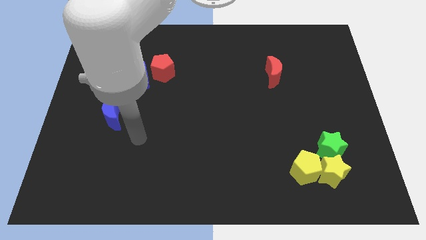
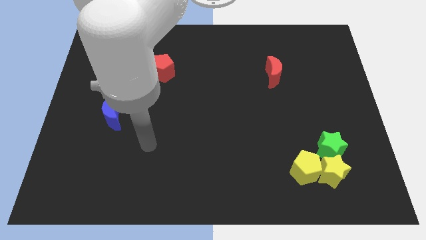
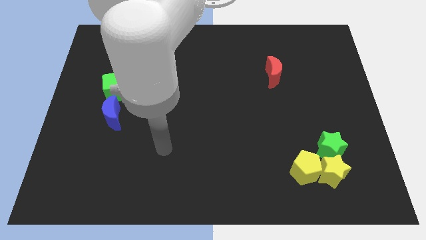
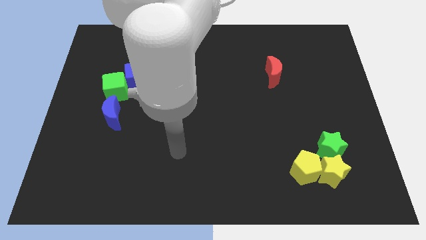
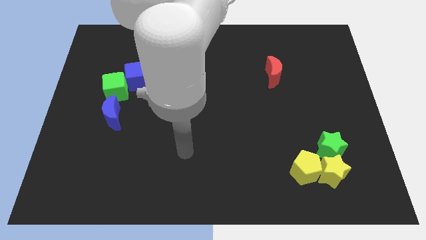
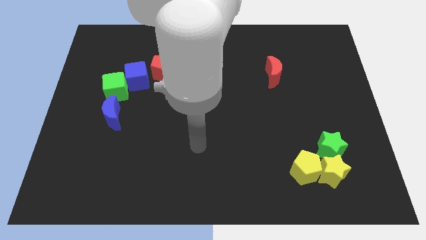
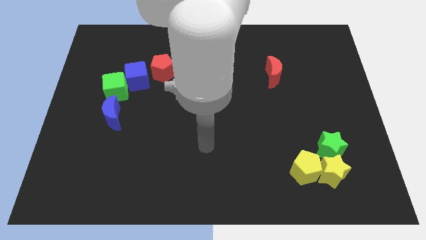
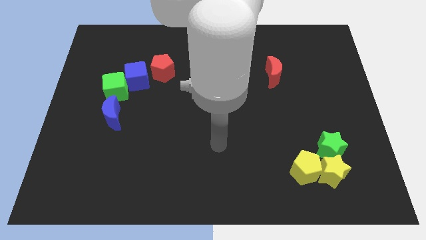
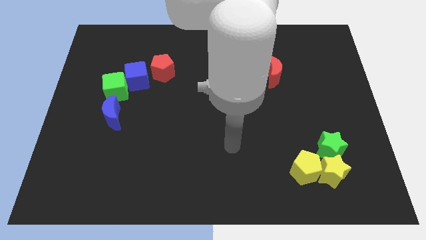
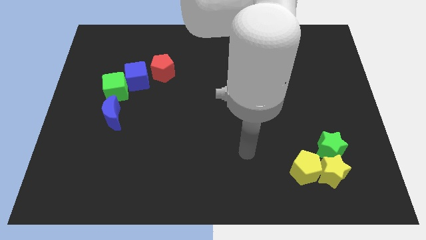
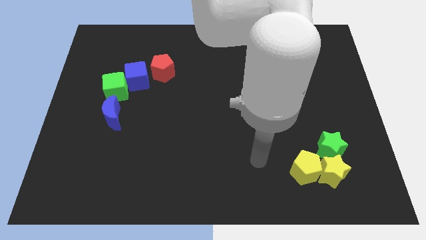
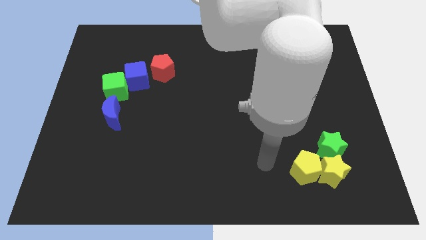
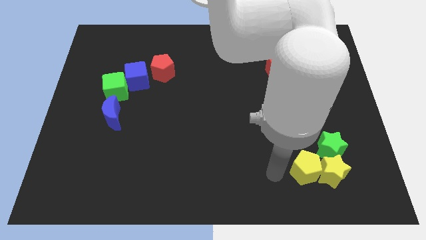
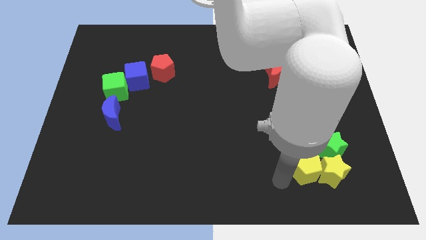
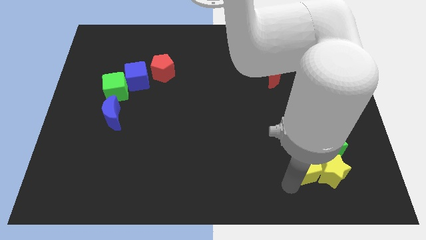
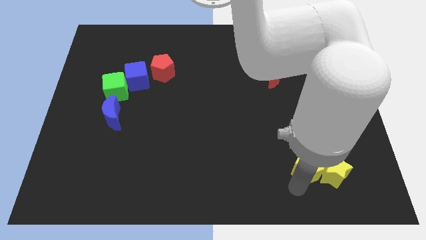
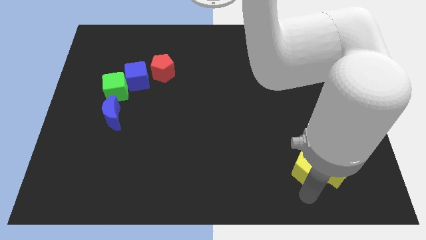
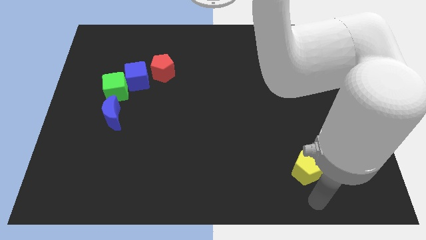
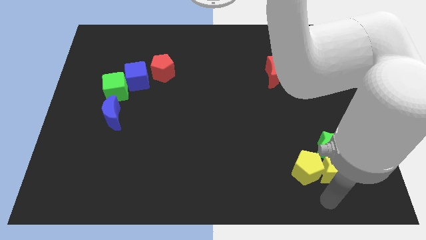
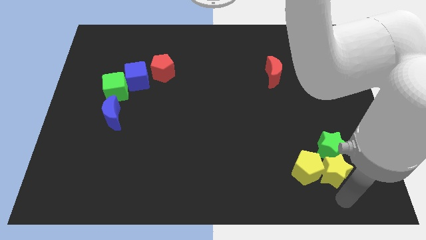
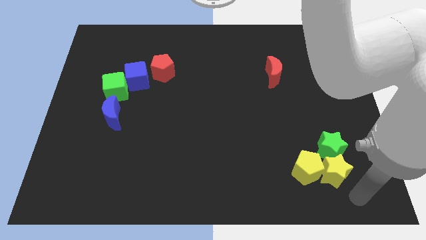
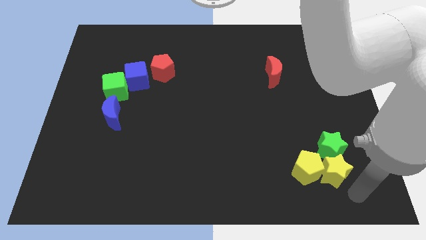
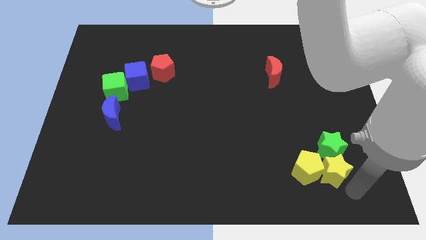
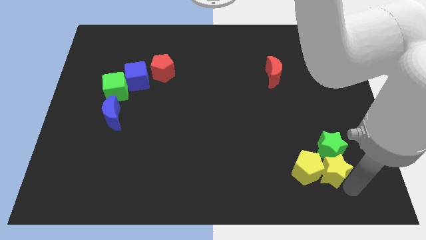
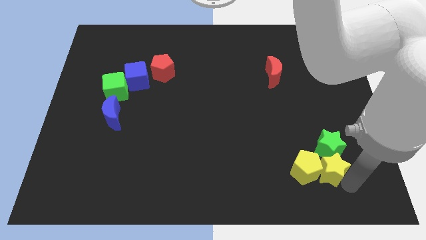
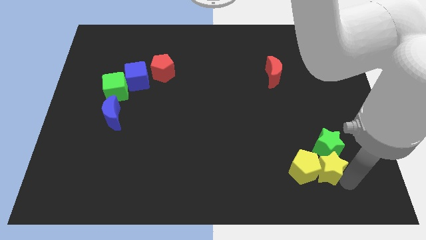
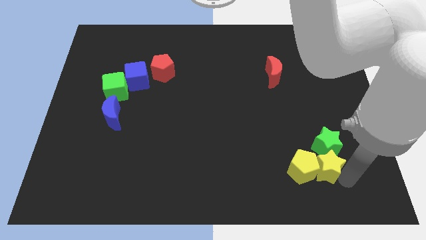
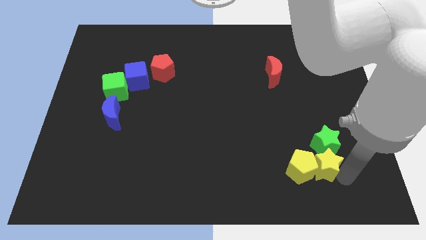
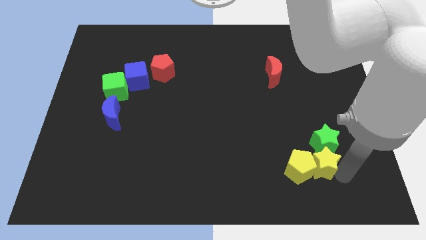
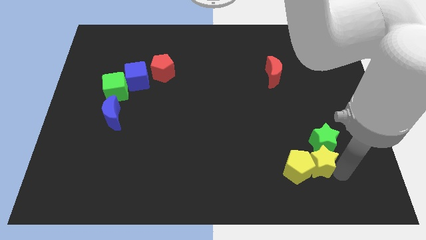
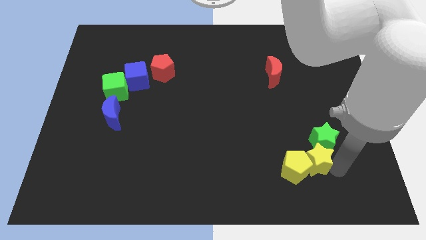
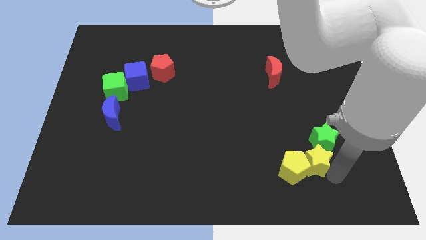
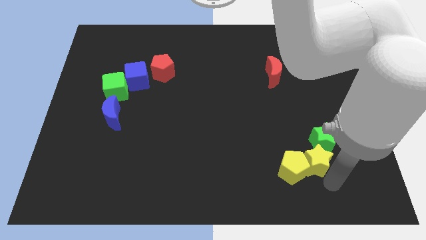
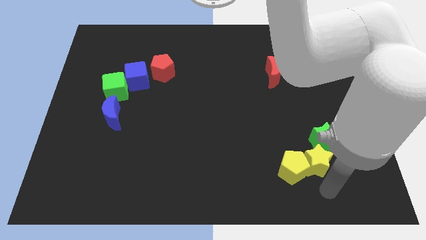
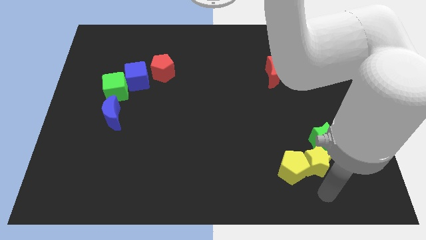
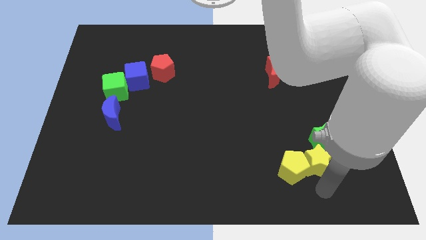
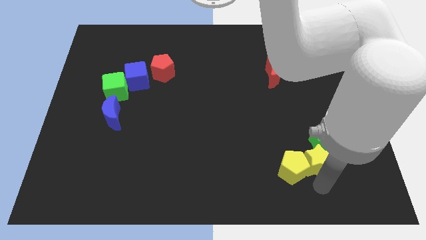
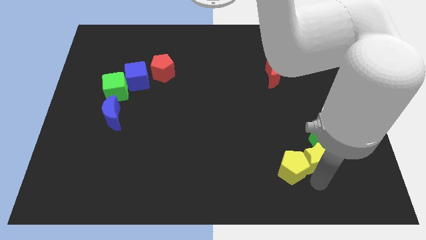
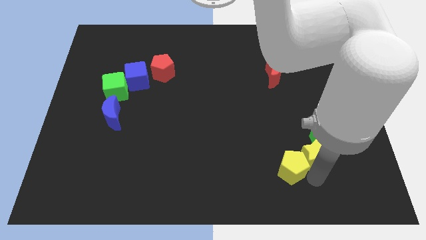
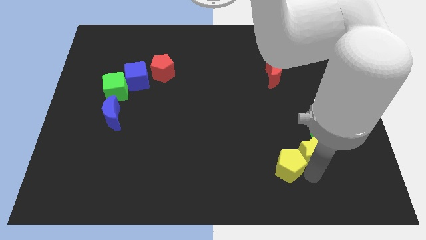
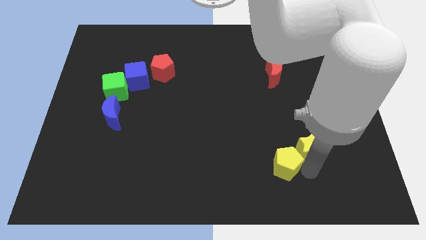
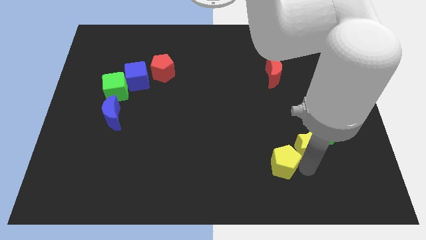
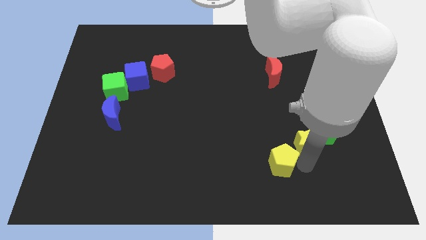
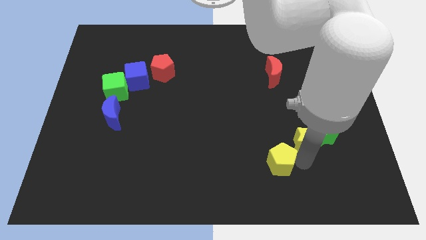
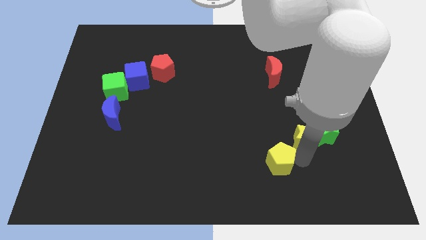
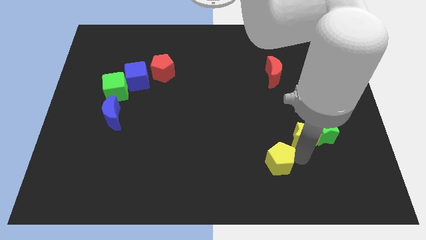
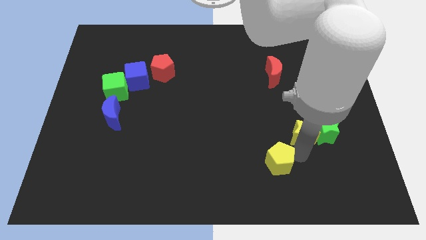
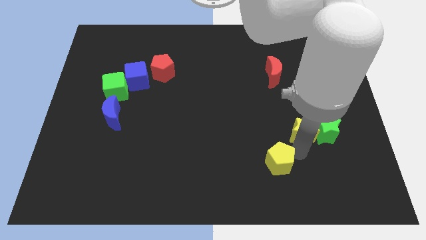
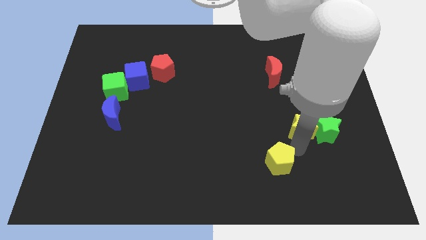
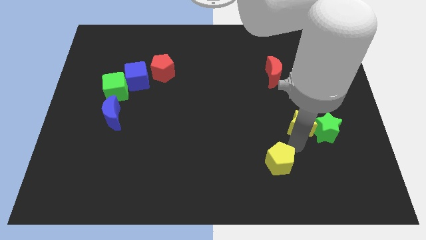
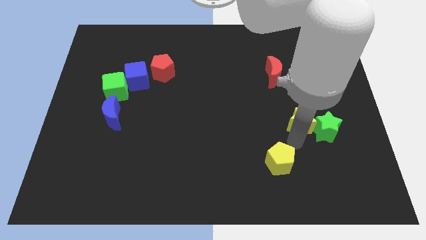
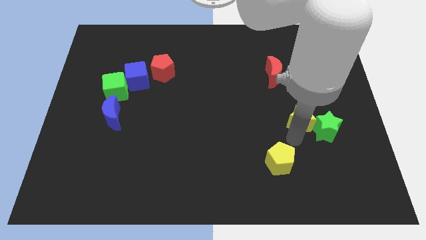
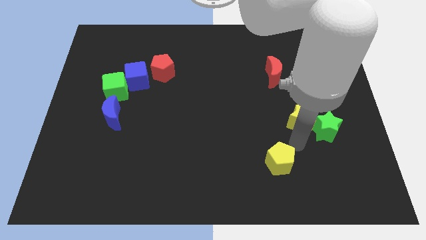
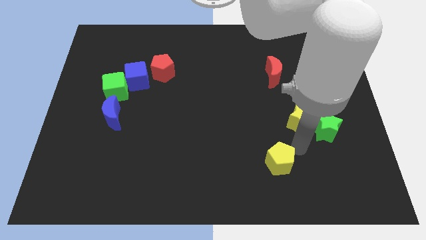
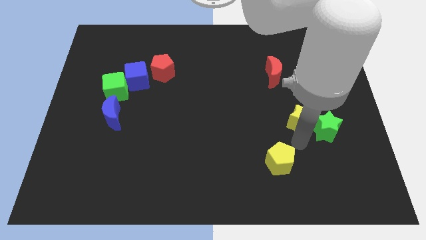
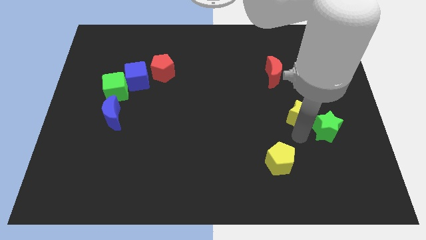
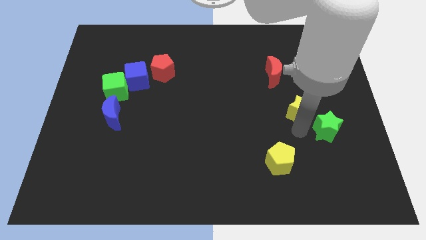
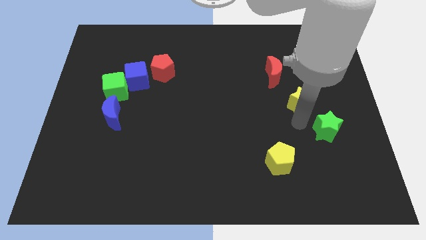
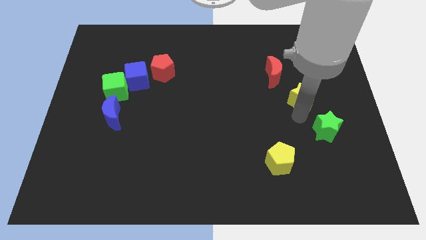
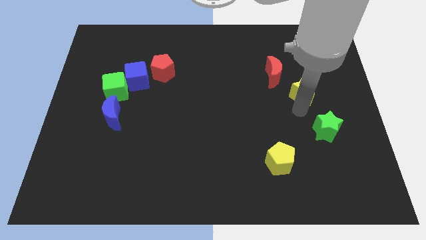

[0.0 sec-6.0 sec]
move the yellow star upwards

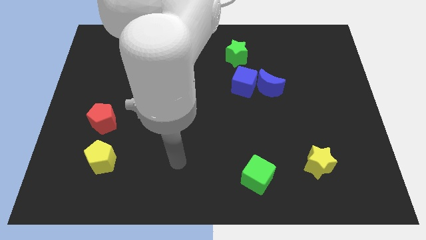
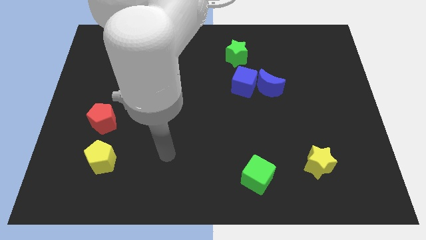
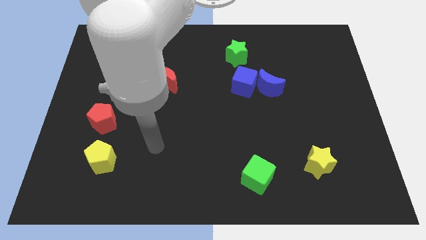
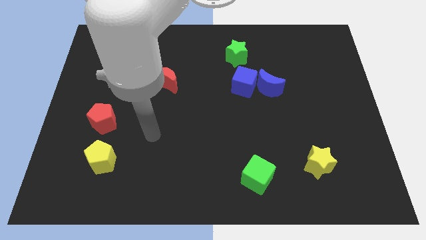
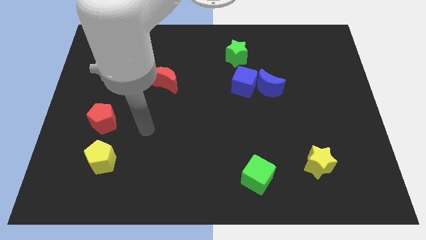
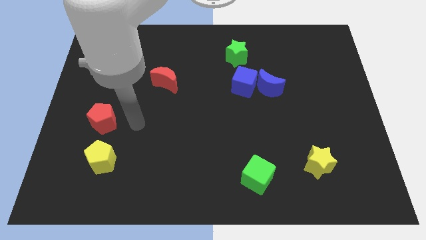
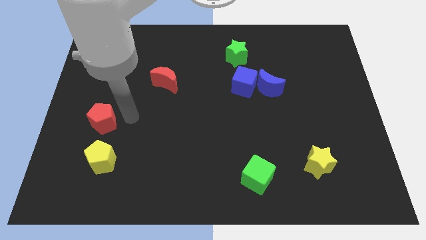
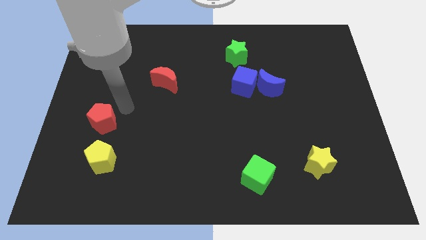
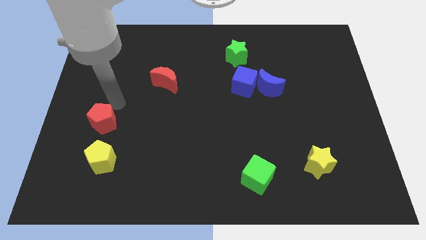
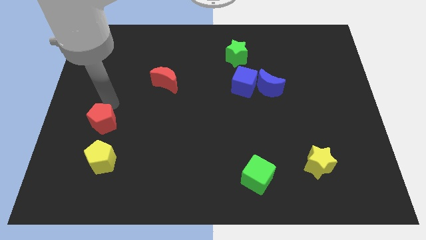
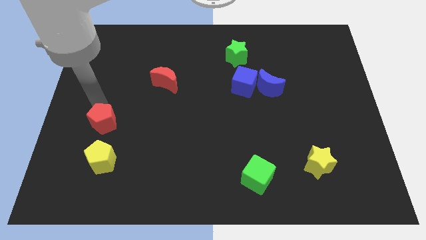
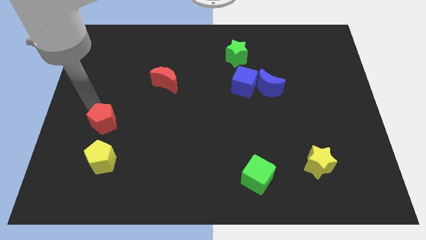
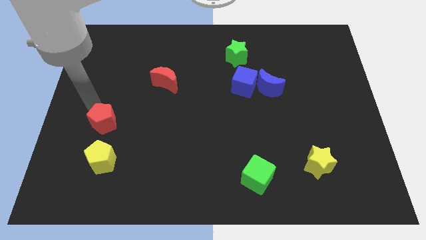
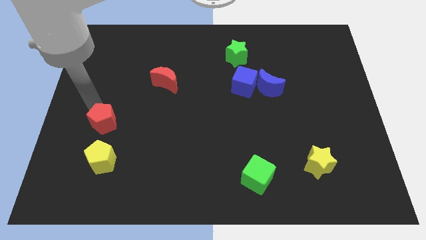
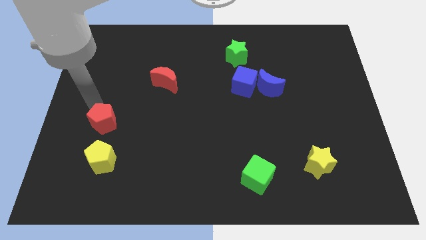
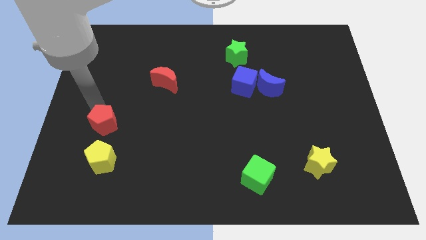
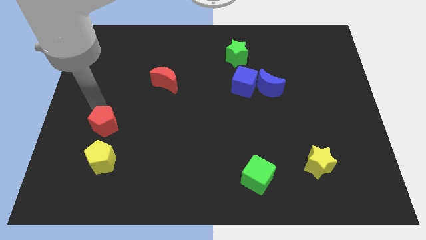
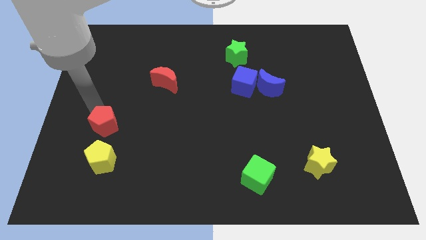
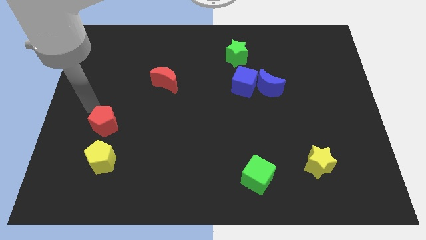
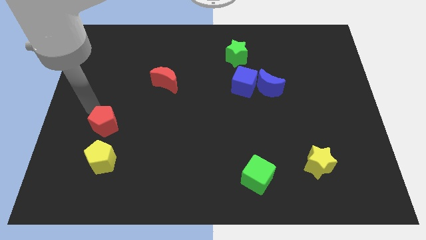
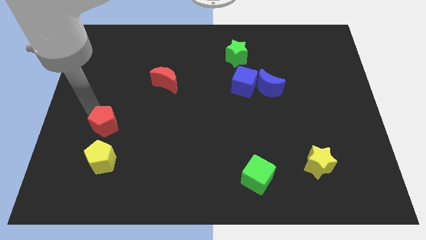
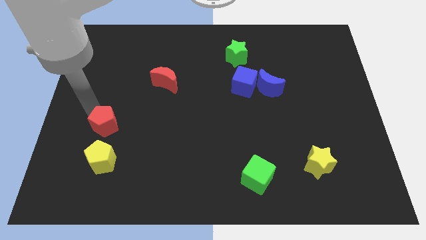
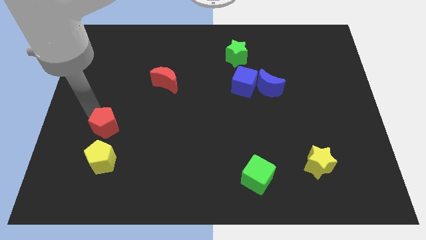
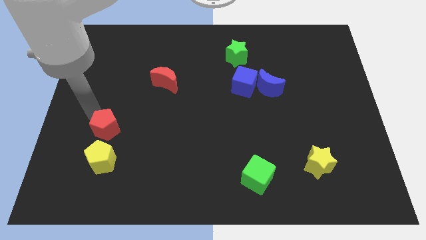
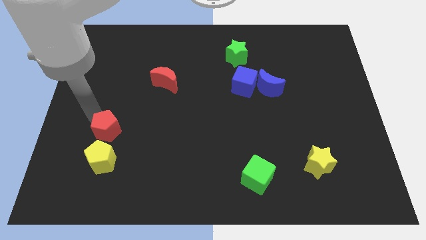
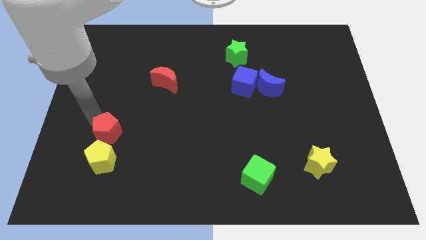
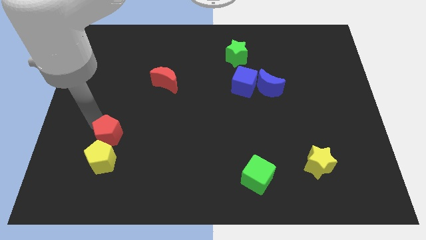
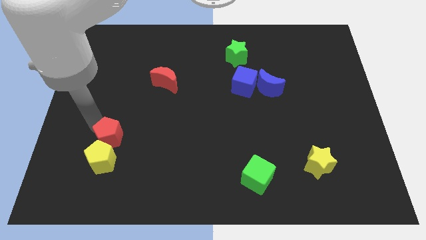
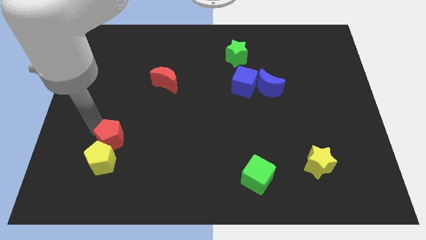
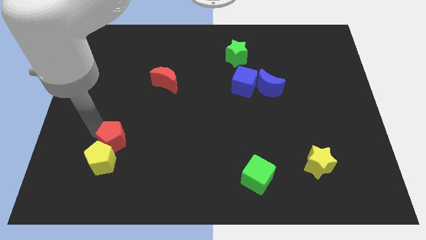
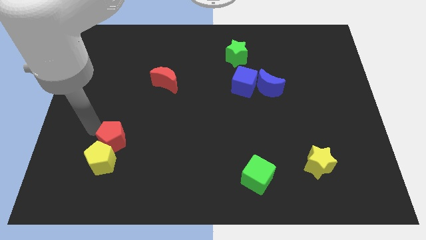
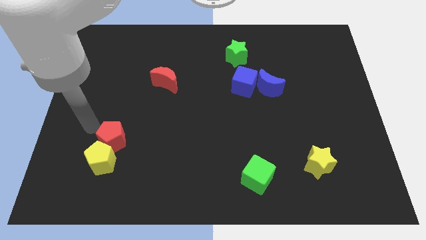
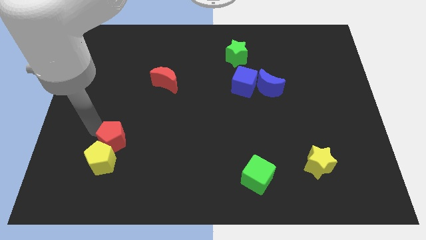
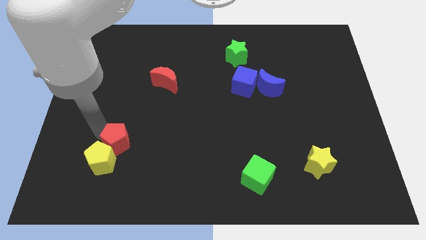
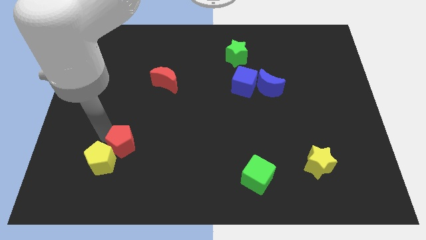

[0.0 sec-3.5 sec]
slightly push the red pentagon down and then right
